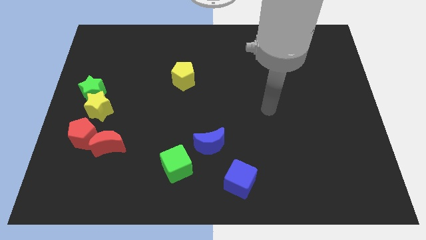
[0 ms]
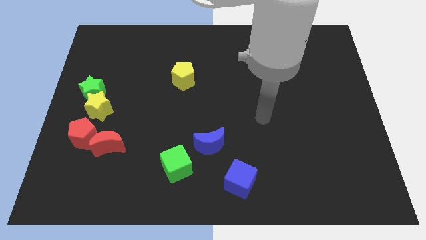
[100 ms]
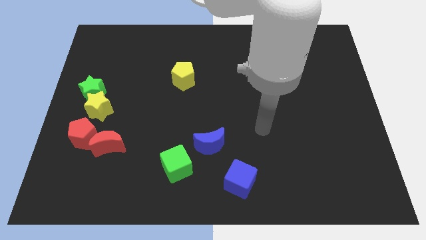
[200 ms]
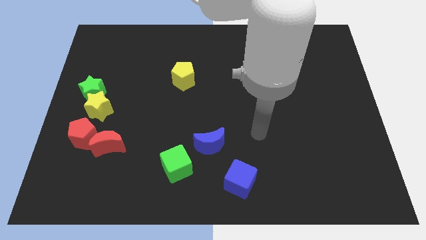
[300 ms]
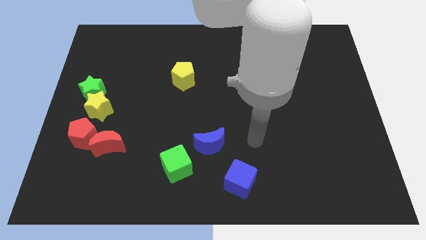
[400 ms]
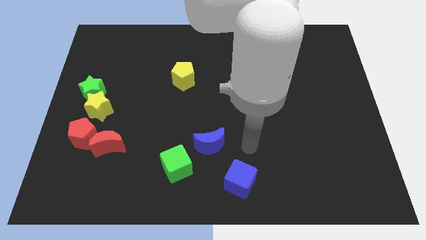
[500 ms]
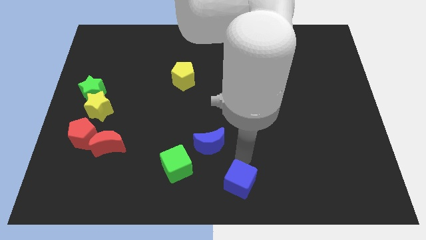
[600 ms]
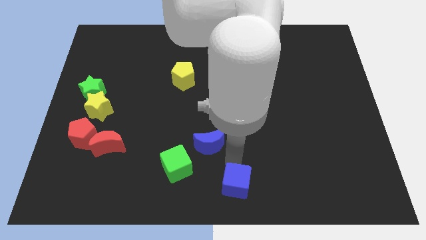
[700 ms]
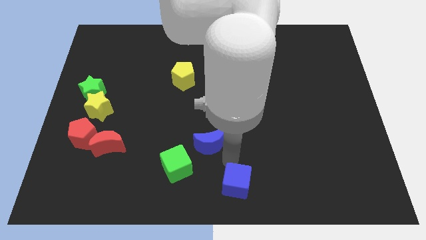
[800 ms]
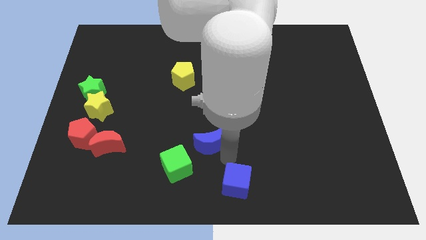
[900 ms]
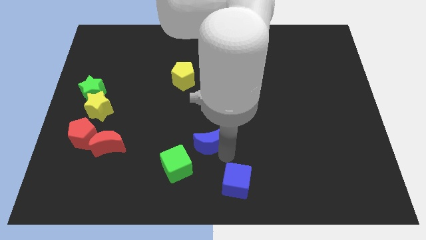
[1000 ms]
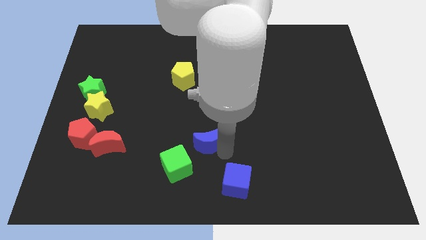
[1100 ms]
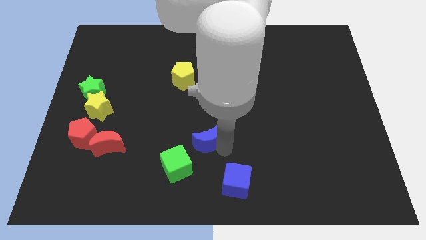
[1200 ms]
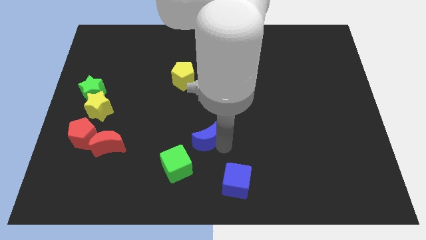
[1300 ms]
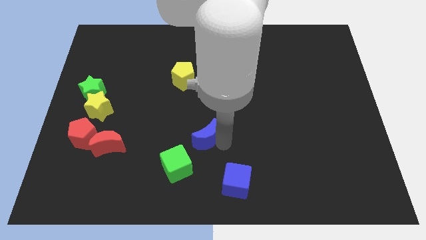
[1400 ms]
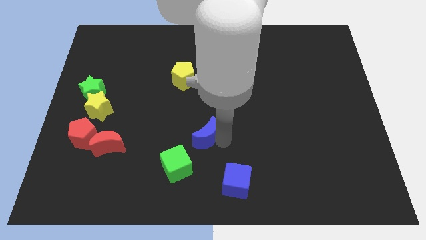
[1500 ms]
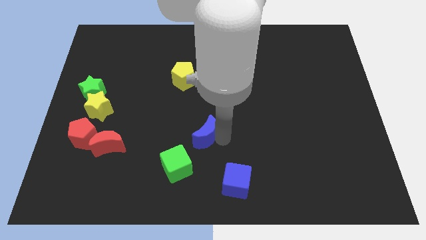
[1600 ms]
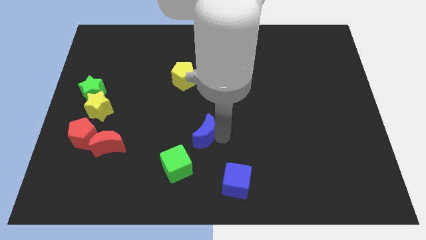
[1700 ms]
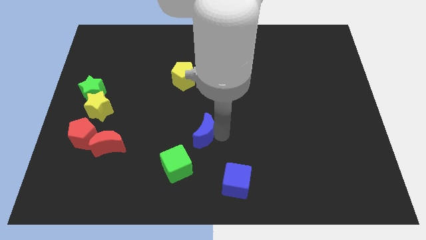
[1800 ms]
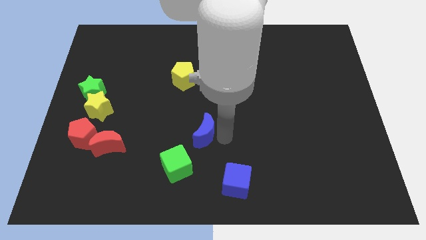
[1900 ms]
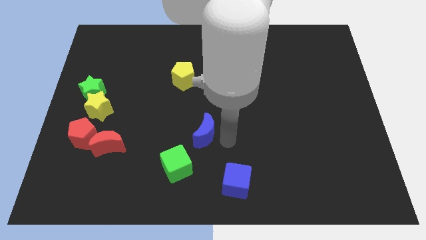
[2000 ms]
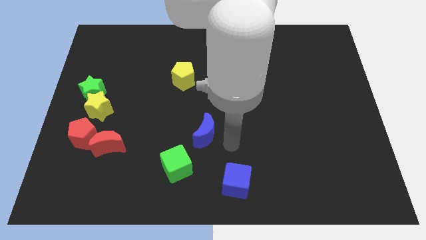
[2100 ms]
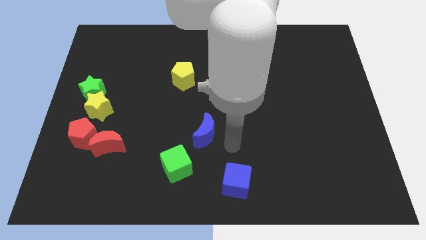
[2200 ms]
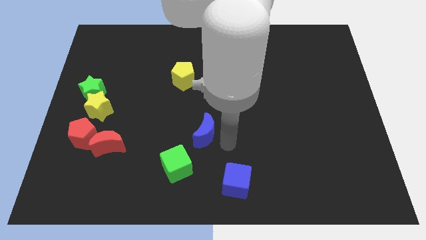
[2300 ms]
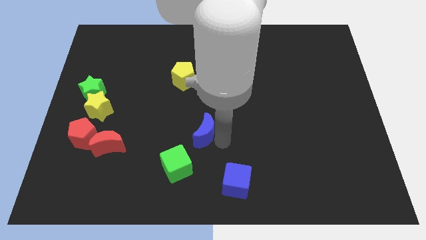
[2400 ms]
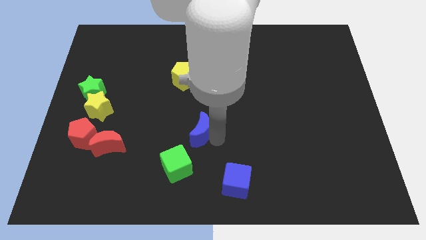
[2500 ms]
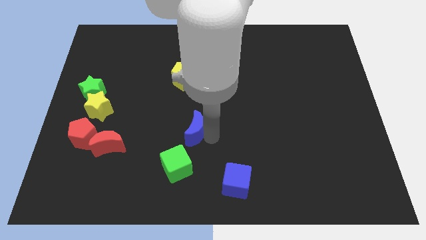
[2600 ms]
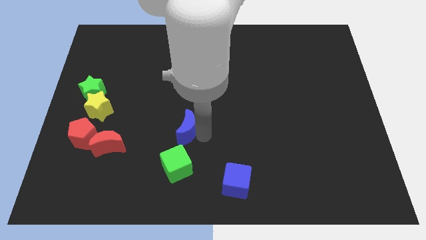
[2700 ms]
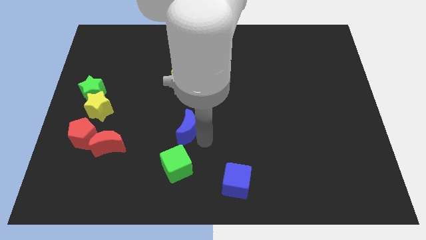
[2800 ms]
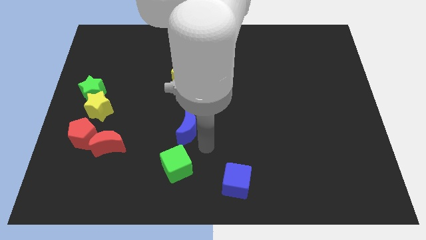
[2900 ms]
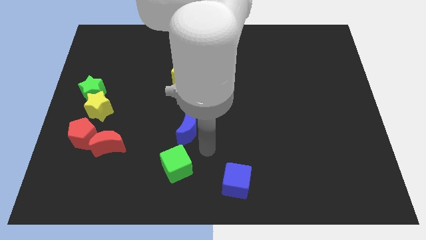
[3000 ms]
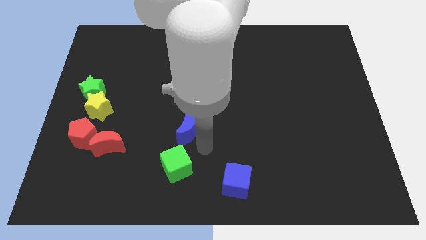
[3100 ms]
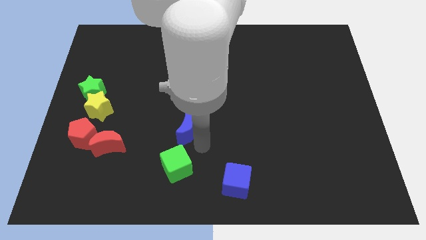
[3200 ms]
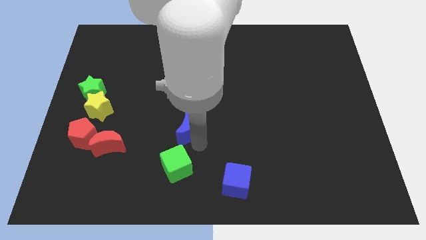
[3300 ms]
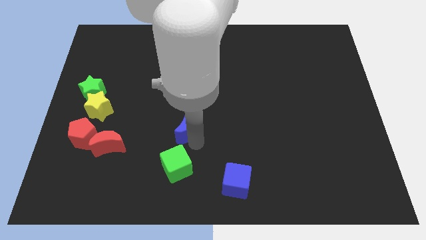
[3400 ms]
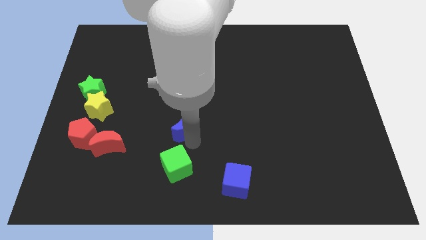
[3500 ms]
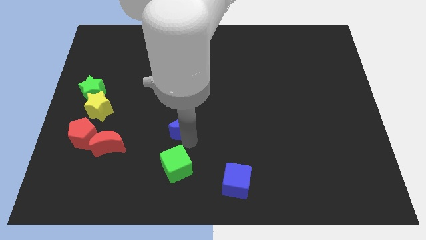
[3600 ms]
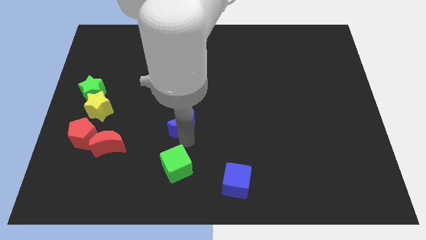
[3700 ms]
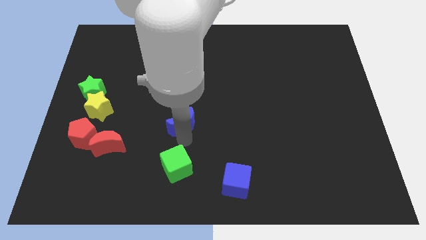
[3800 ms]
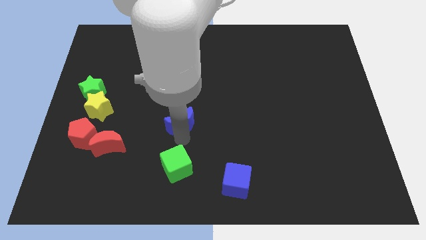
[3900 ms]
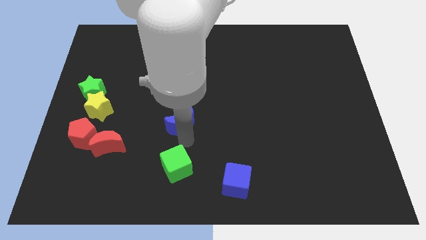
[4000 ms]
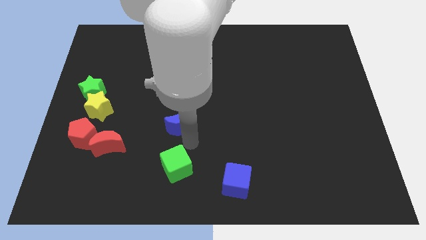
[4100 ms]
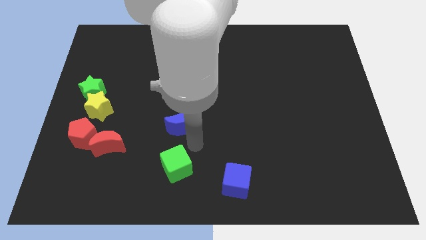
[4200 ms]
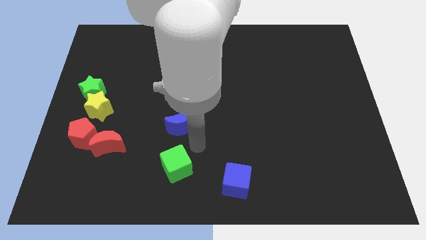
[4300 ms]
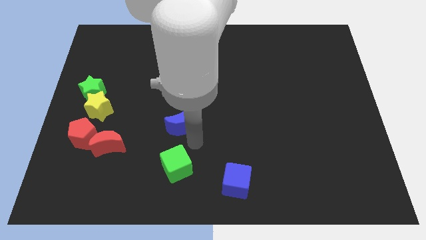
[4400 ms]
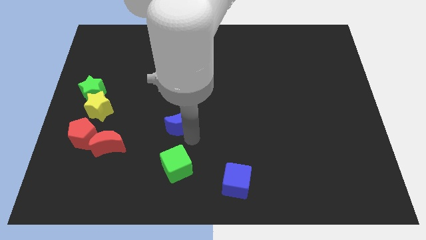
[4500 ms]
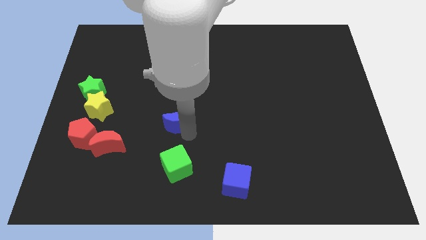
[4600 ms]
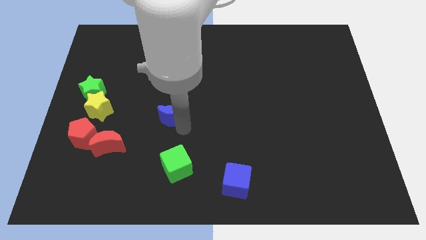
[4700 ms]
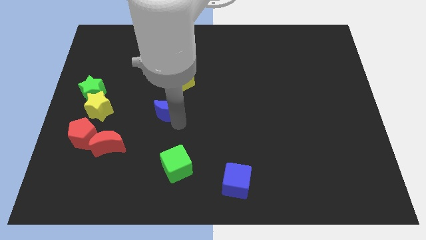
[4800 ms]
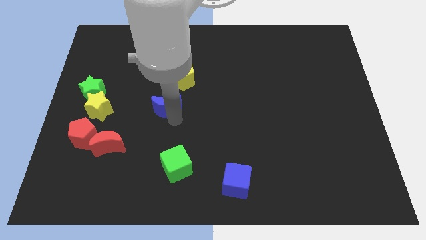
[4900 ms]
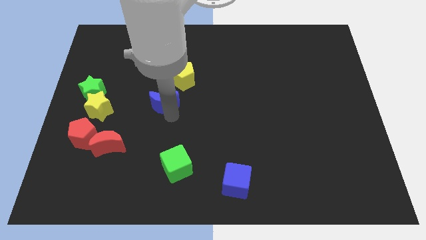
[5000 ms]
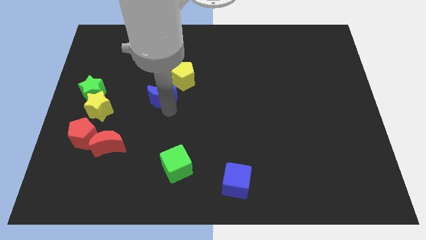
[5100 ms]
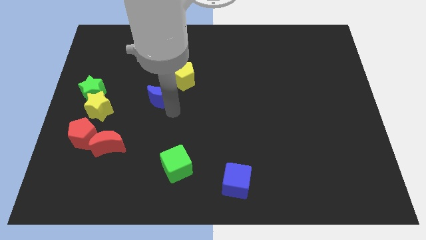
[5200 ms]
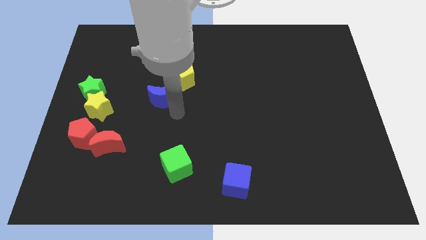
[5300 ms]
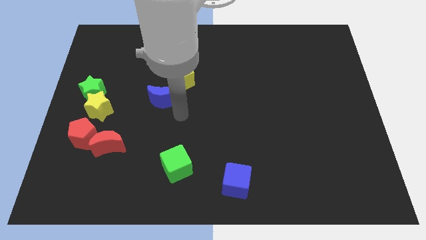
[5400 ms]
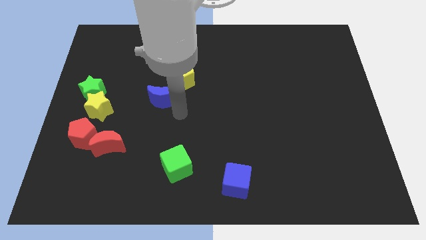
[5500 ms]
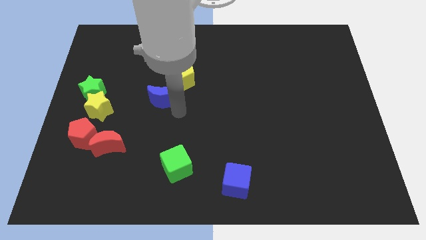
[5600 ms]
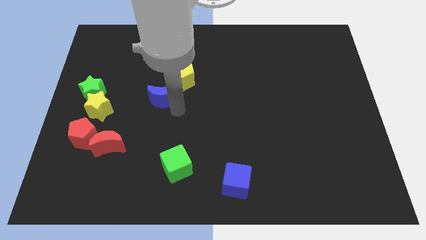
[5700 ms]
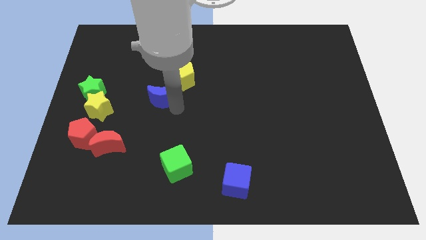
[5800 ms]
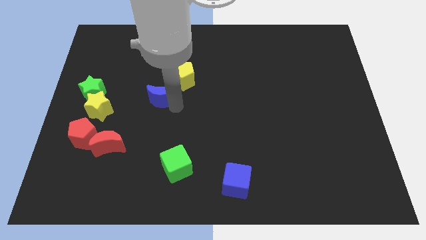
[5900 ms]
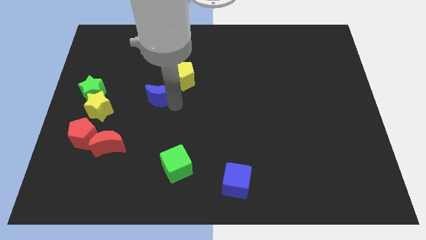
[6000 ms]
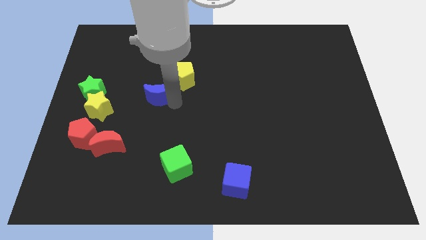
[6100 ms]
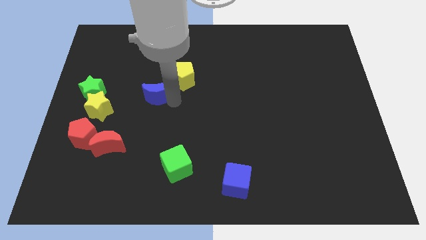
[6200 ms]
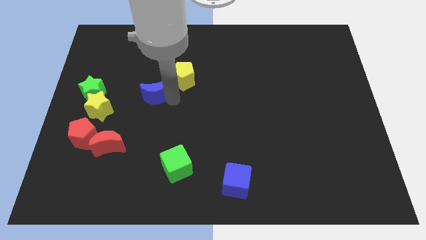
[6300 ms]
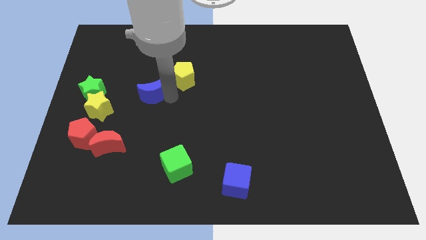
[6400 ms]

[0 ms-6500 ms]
slide the blue moon diagonally up and to the left

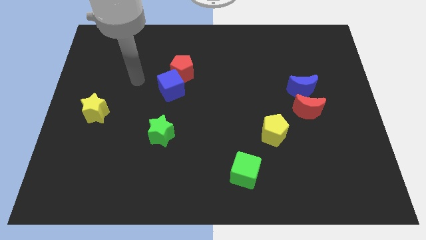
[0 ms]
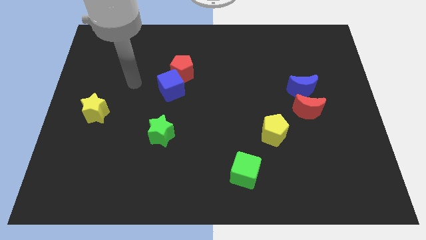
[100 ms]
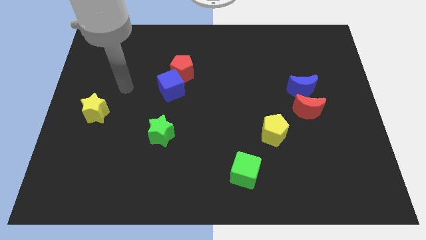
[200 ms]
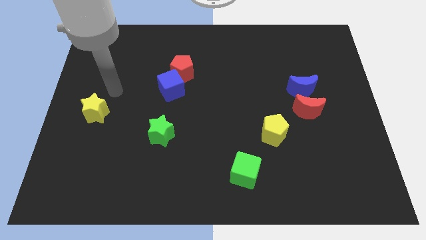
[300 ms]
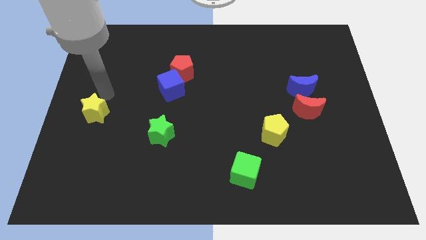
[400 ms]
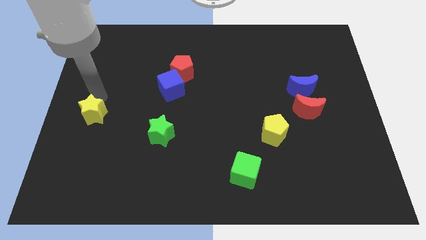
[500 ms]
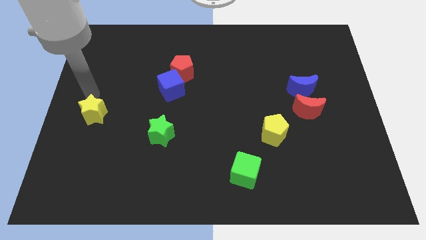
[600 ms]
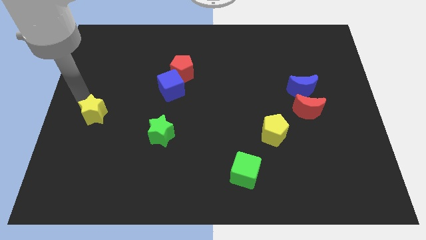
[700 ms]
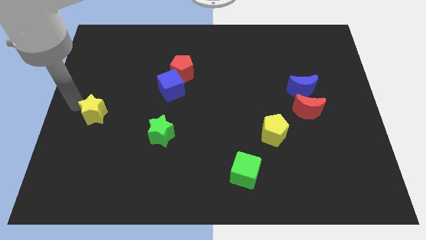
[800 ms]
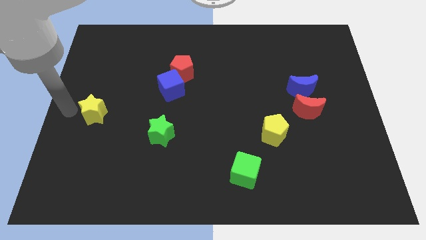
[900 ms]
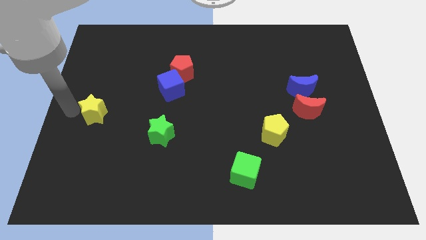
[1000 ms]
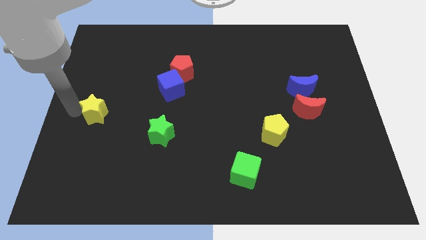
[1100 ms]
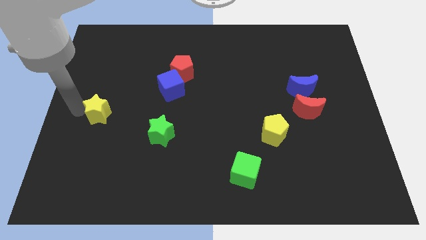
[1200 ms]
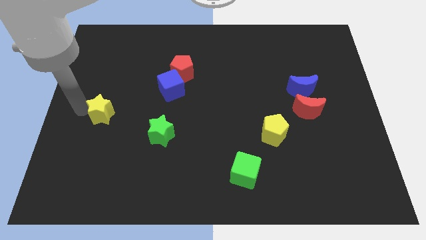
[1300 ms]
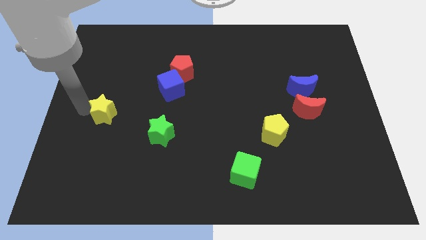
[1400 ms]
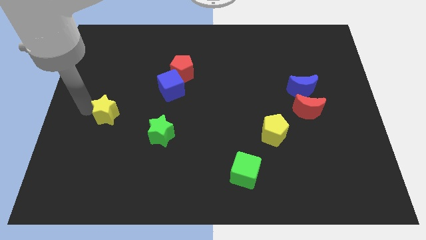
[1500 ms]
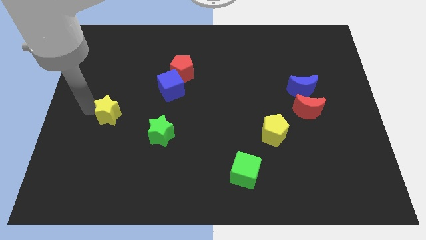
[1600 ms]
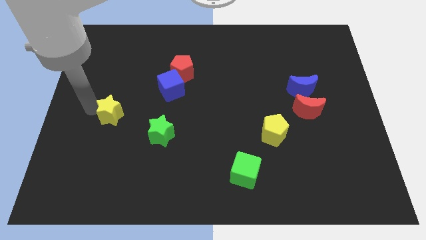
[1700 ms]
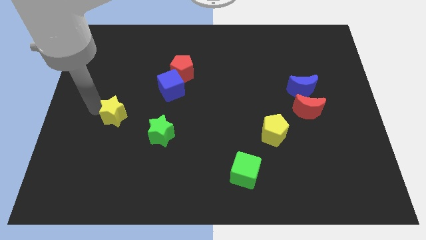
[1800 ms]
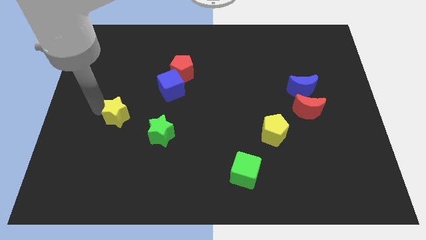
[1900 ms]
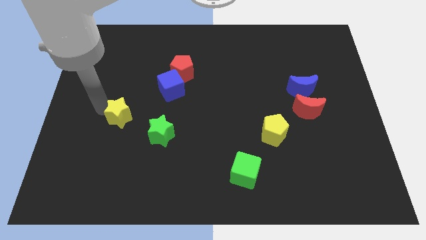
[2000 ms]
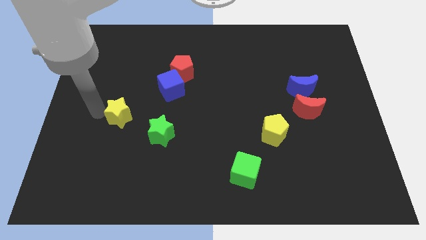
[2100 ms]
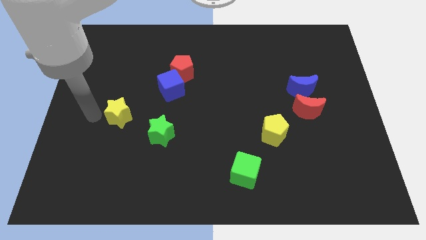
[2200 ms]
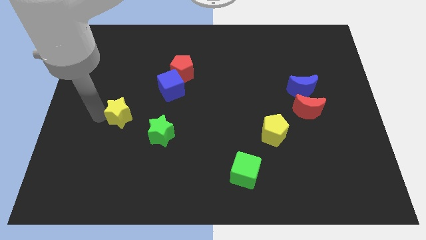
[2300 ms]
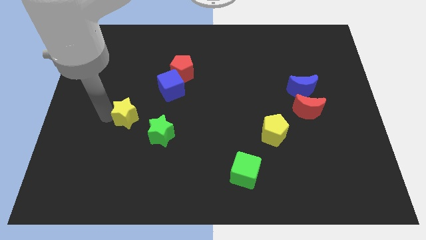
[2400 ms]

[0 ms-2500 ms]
push the yellow star right a bit
